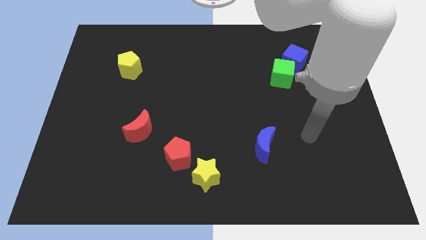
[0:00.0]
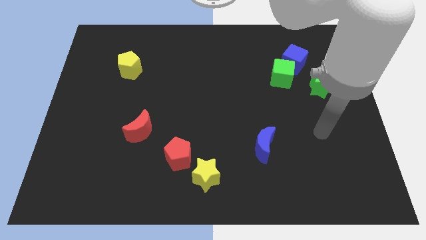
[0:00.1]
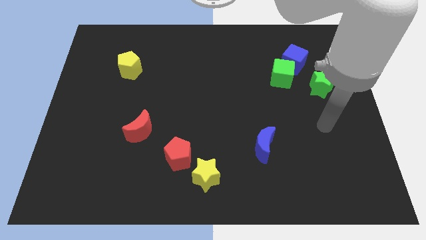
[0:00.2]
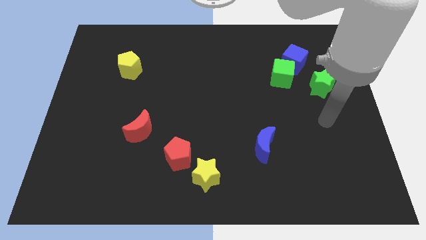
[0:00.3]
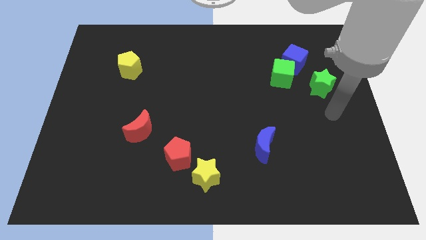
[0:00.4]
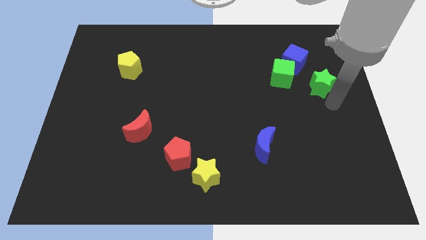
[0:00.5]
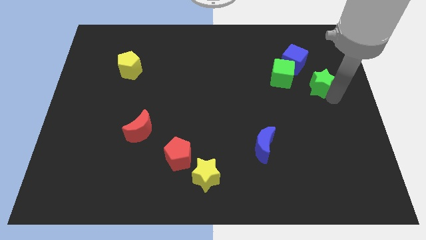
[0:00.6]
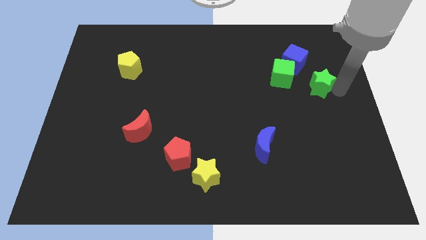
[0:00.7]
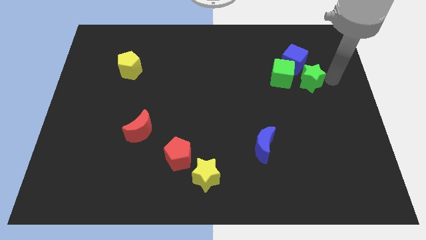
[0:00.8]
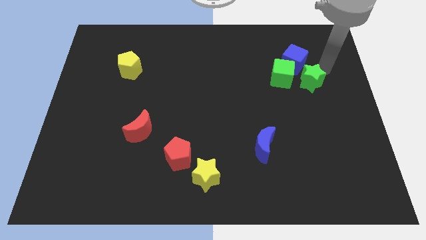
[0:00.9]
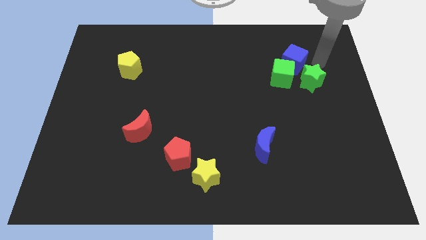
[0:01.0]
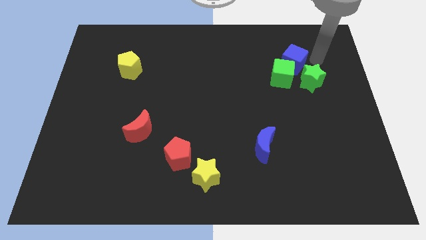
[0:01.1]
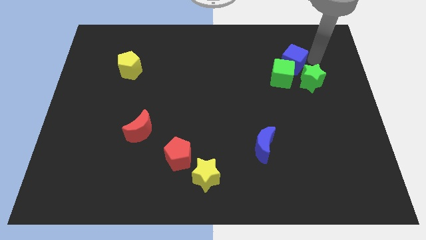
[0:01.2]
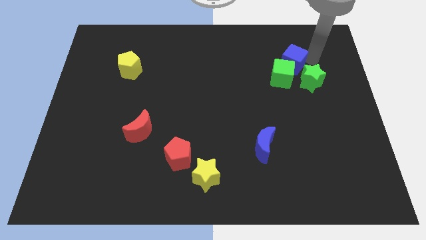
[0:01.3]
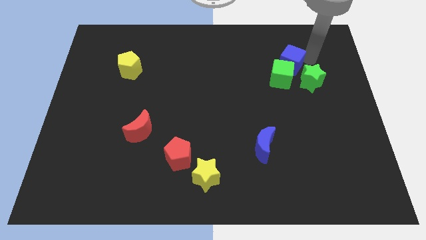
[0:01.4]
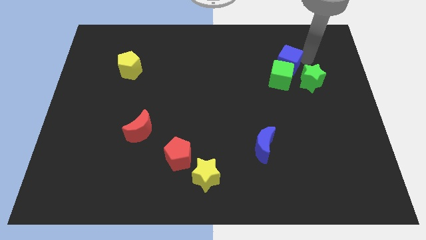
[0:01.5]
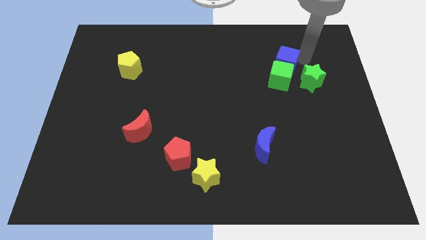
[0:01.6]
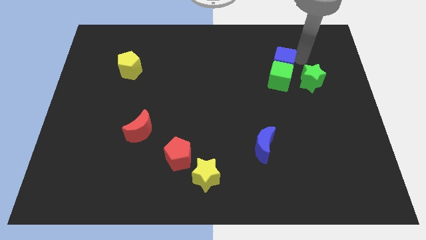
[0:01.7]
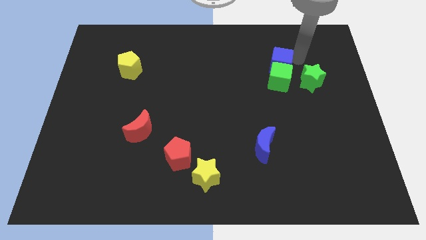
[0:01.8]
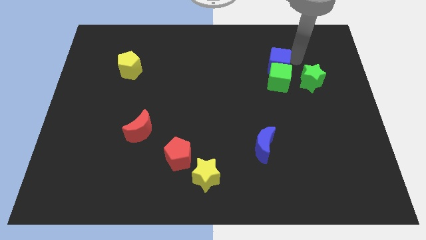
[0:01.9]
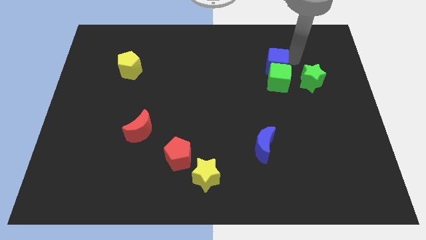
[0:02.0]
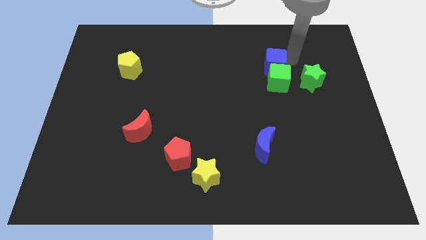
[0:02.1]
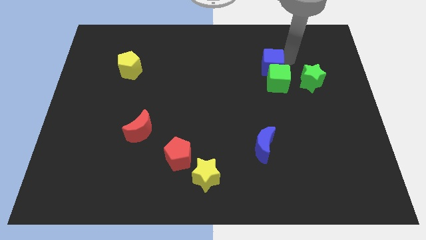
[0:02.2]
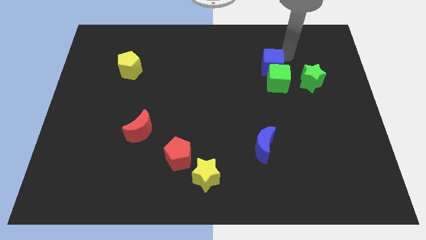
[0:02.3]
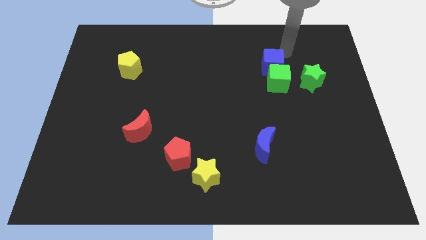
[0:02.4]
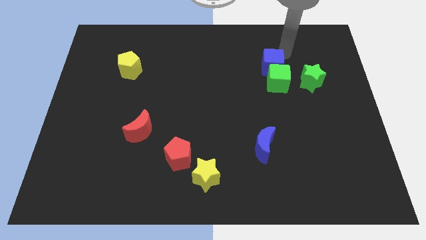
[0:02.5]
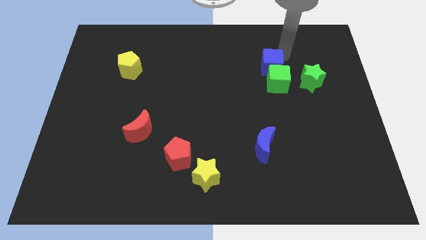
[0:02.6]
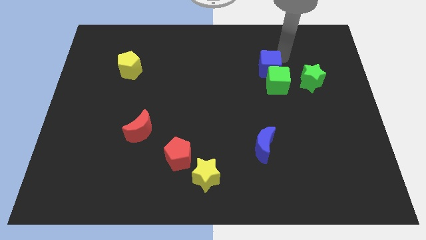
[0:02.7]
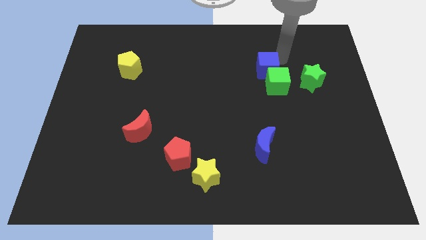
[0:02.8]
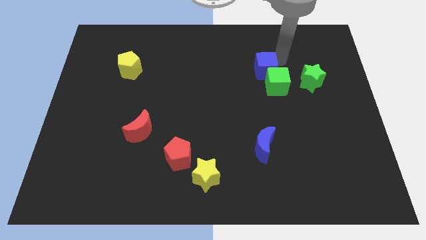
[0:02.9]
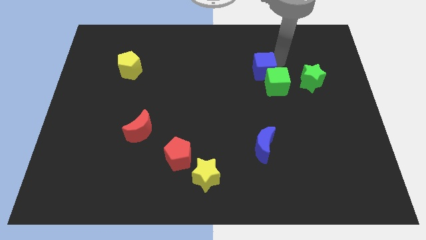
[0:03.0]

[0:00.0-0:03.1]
slightly push the blue cube down and to the left diagonally

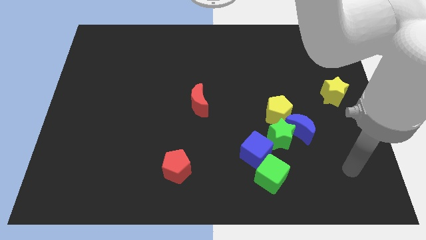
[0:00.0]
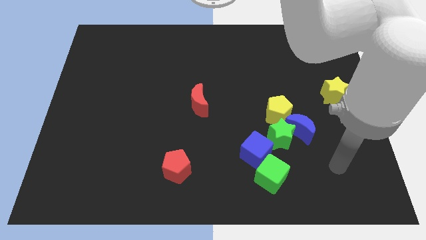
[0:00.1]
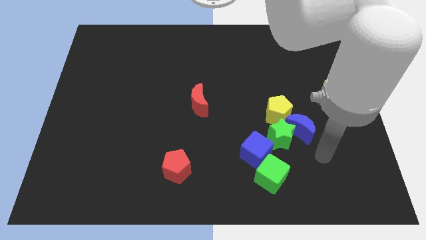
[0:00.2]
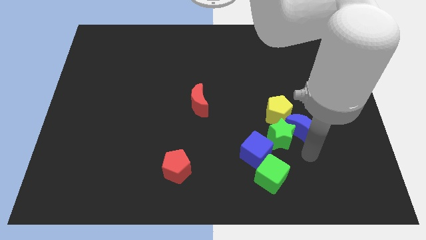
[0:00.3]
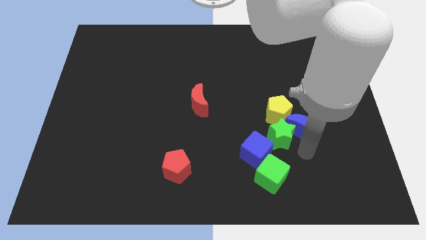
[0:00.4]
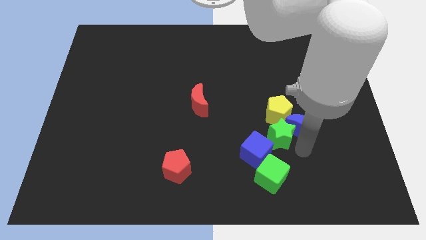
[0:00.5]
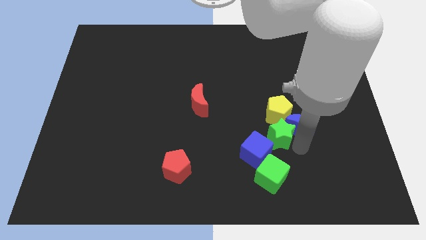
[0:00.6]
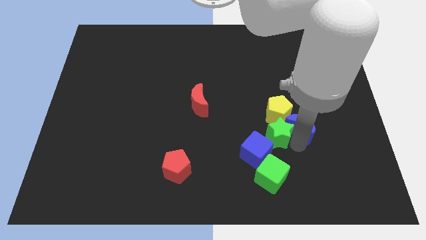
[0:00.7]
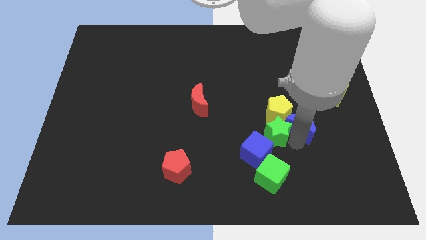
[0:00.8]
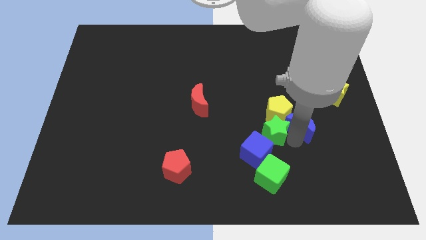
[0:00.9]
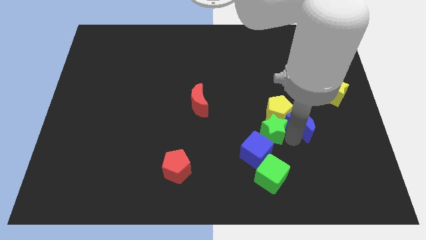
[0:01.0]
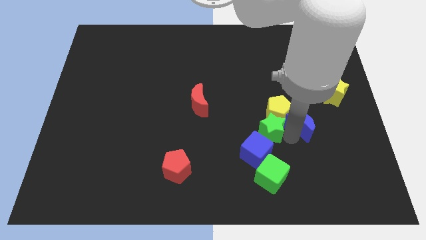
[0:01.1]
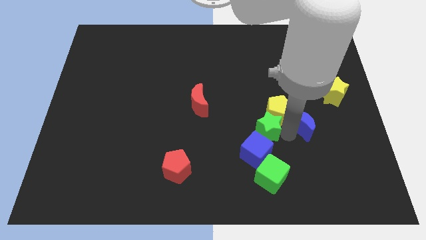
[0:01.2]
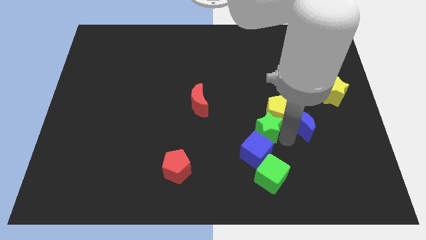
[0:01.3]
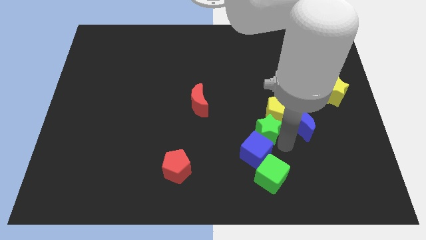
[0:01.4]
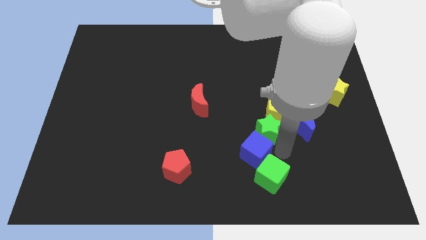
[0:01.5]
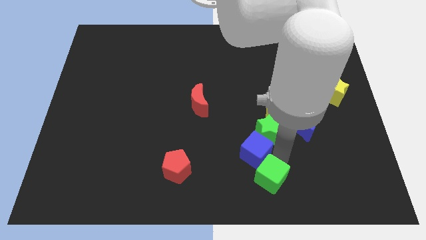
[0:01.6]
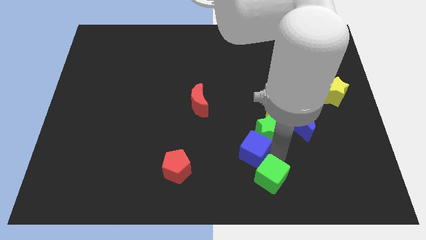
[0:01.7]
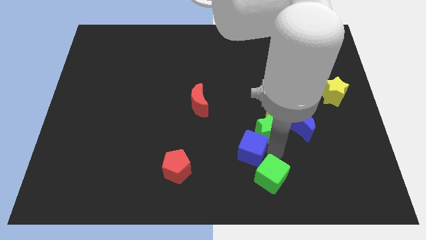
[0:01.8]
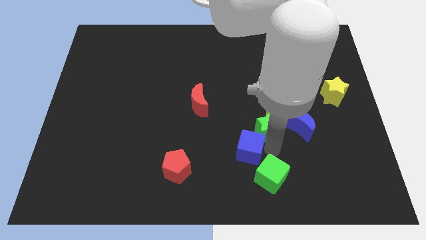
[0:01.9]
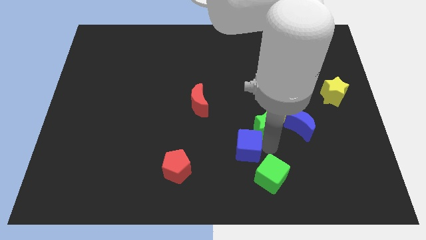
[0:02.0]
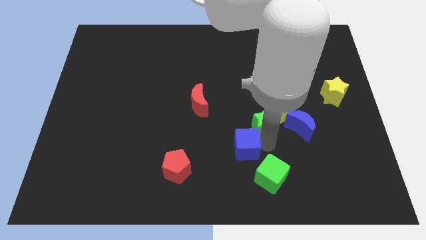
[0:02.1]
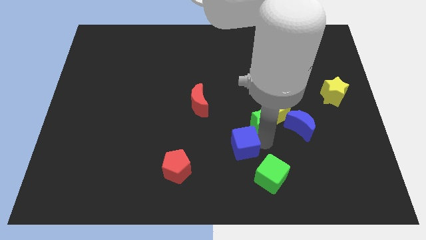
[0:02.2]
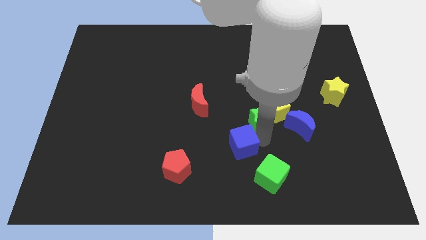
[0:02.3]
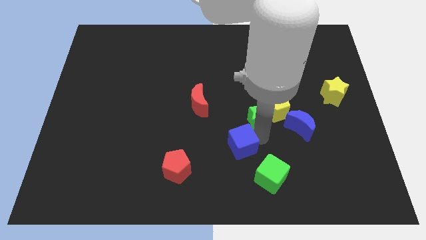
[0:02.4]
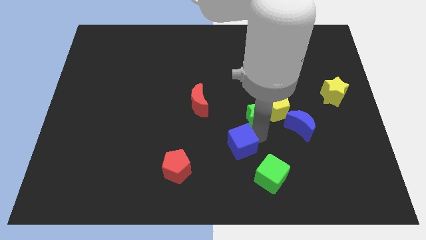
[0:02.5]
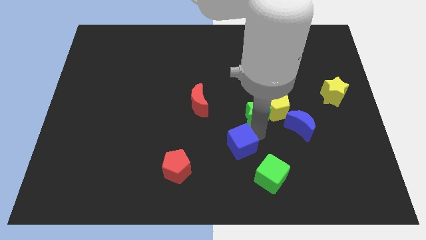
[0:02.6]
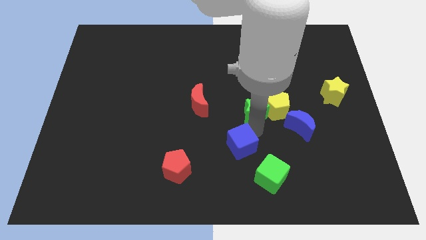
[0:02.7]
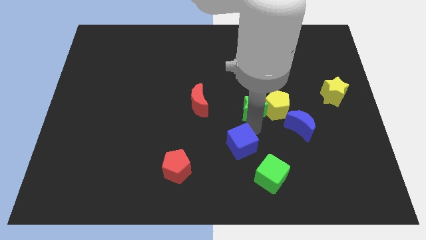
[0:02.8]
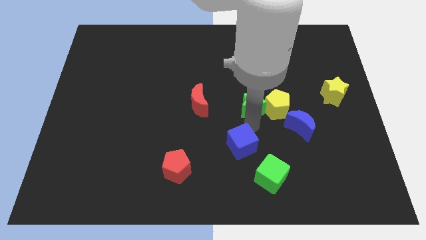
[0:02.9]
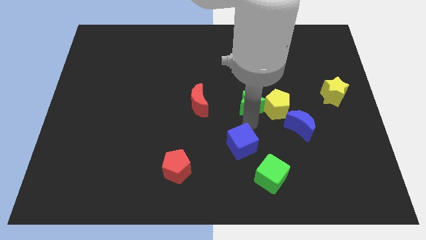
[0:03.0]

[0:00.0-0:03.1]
slide the green star a little up

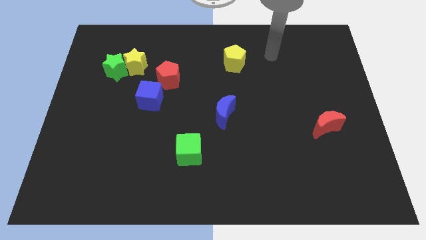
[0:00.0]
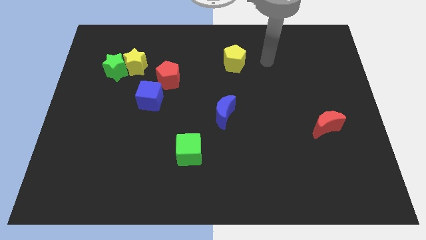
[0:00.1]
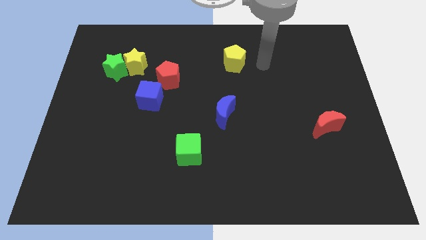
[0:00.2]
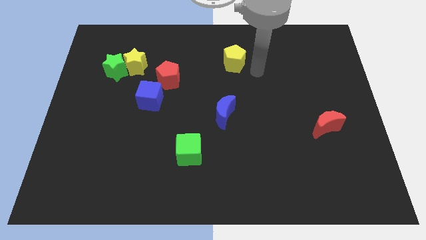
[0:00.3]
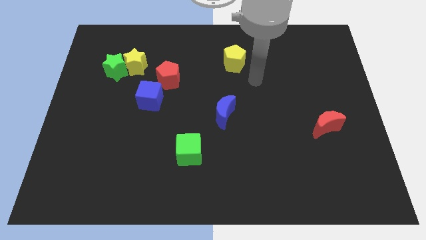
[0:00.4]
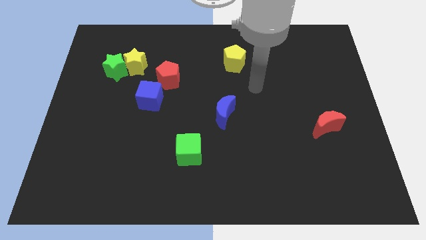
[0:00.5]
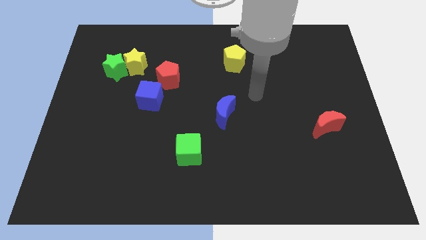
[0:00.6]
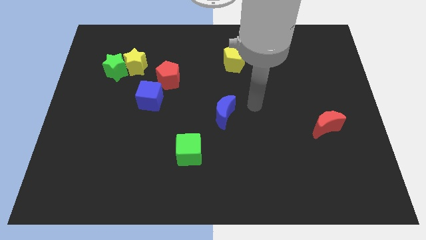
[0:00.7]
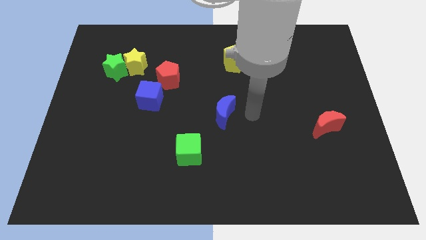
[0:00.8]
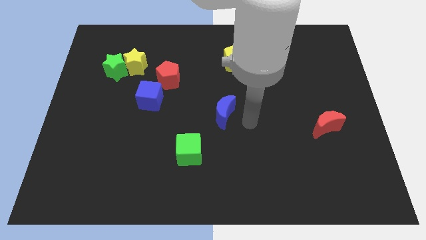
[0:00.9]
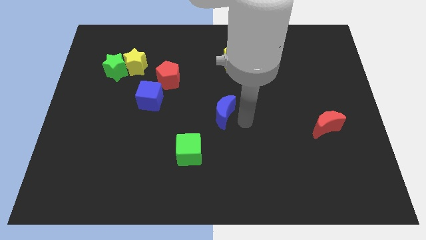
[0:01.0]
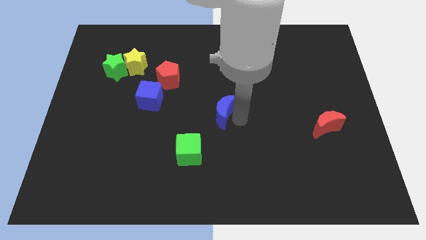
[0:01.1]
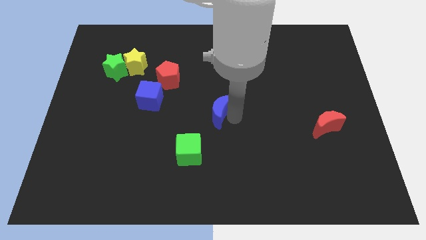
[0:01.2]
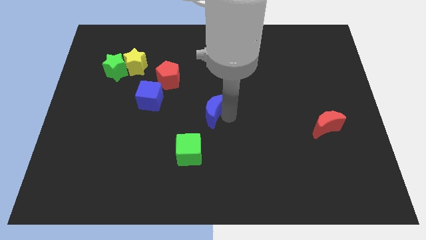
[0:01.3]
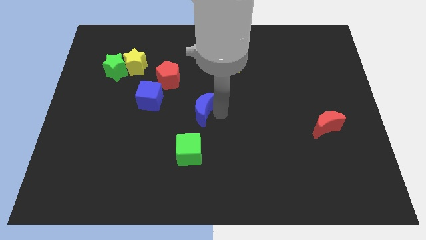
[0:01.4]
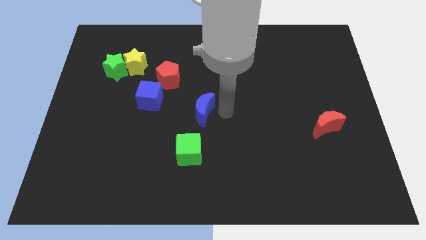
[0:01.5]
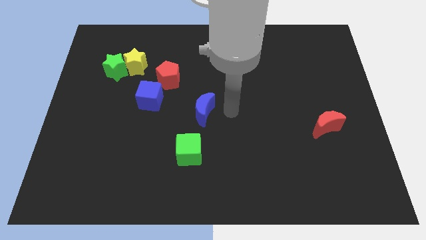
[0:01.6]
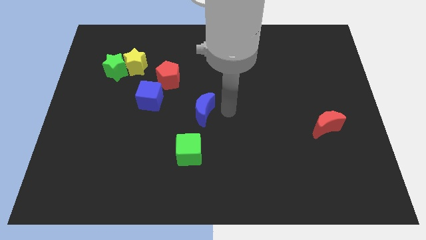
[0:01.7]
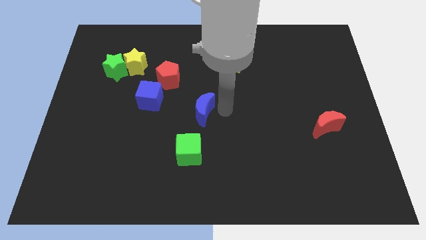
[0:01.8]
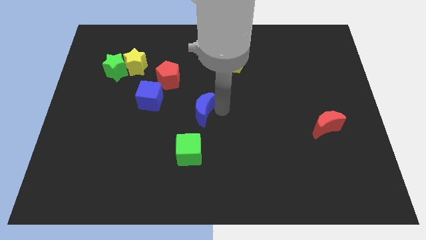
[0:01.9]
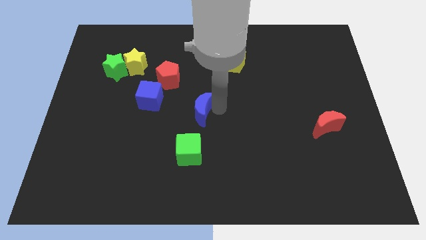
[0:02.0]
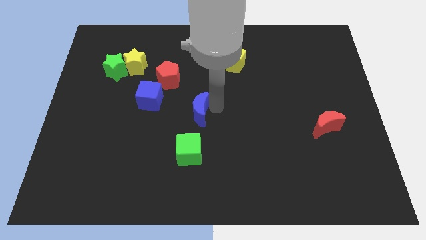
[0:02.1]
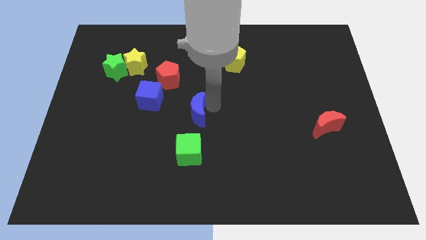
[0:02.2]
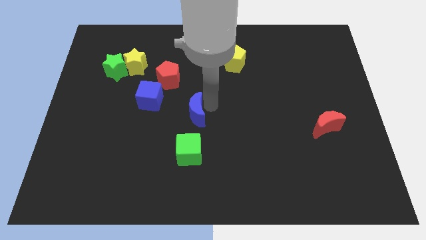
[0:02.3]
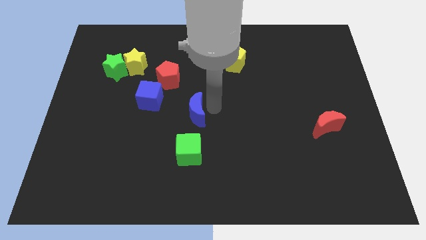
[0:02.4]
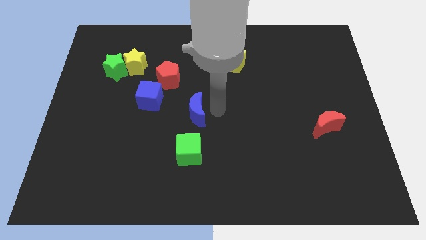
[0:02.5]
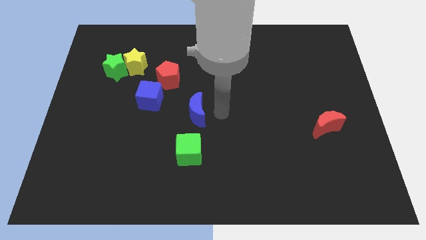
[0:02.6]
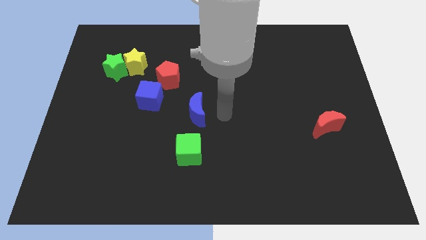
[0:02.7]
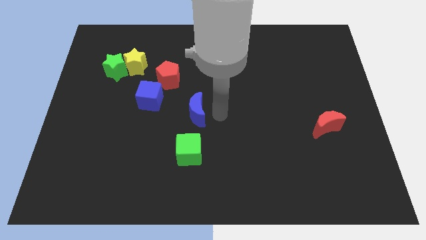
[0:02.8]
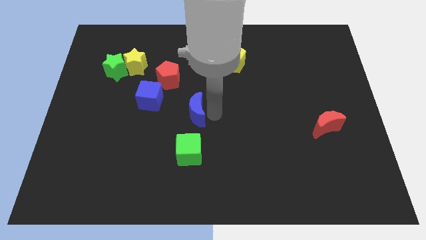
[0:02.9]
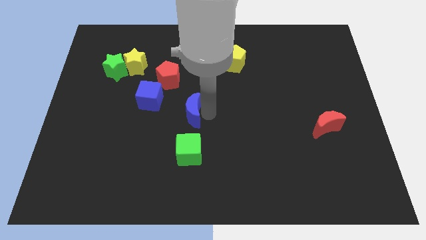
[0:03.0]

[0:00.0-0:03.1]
move the blue moon a little bit left
